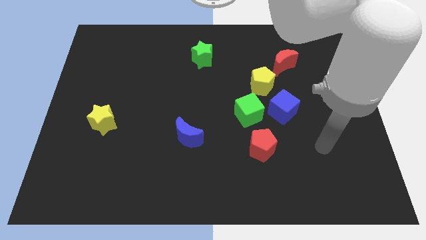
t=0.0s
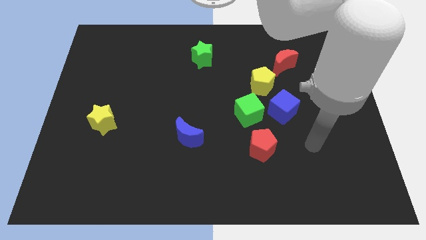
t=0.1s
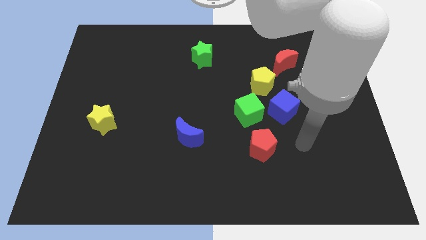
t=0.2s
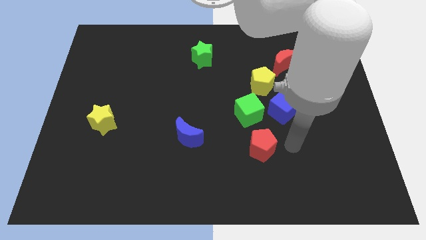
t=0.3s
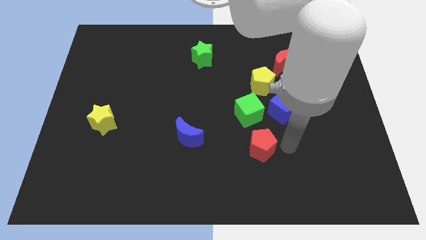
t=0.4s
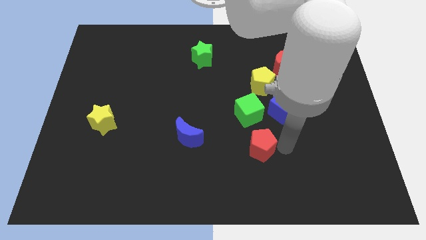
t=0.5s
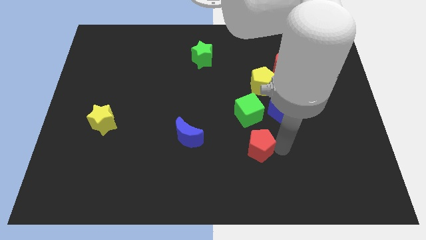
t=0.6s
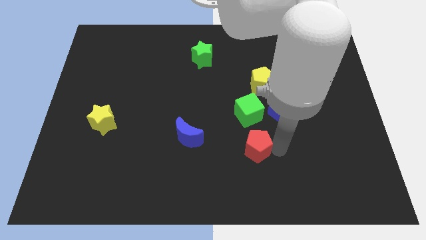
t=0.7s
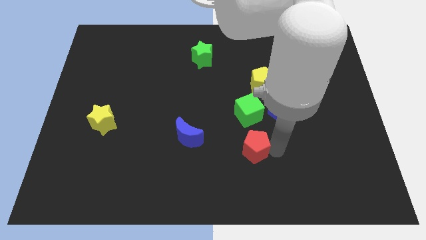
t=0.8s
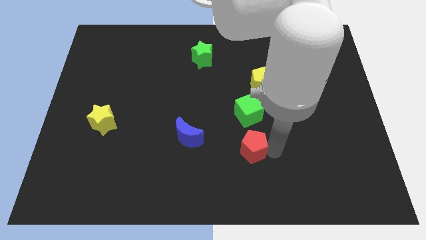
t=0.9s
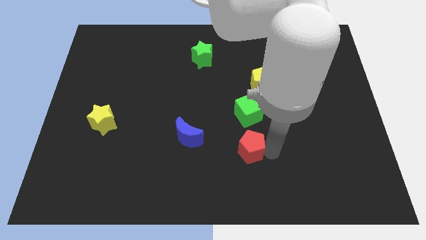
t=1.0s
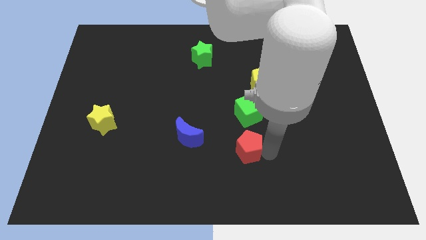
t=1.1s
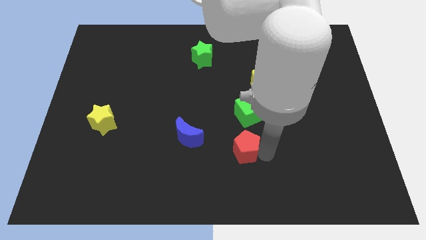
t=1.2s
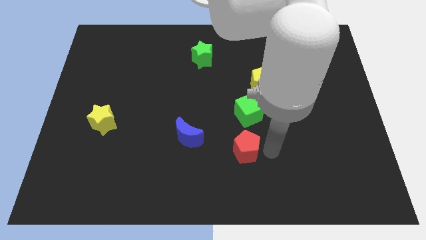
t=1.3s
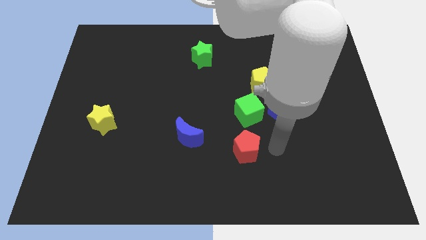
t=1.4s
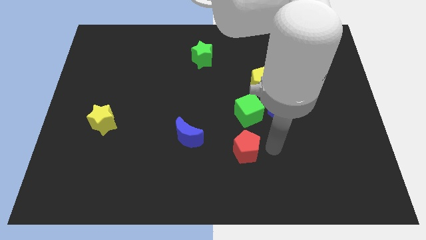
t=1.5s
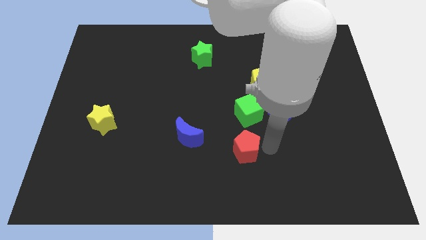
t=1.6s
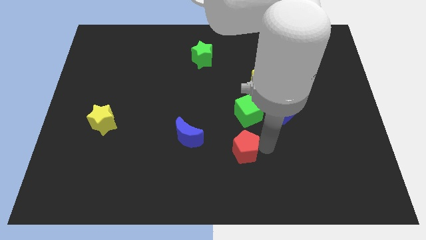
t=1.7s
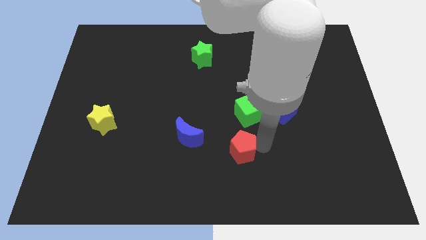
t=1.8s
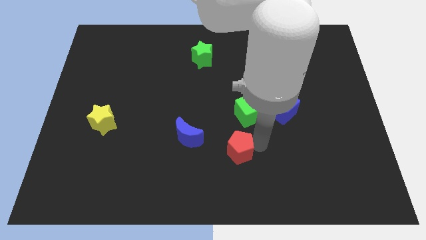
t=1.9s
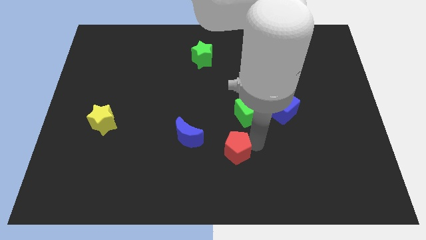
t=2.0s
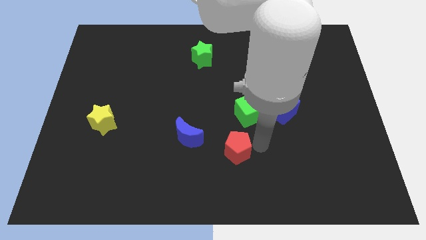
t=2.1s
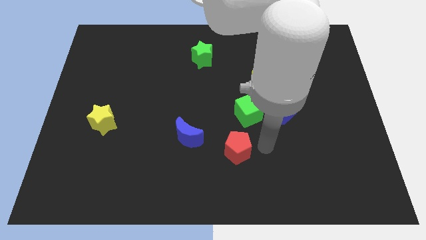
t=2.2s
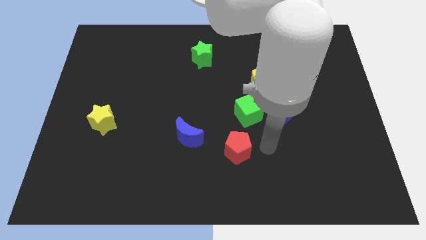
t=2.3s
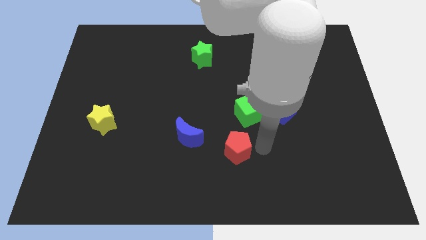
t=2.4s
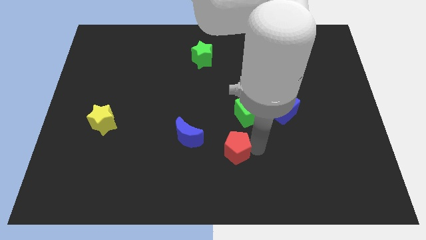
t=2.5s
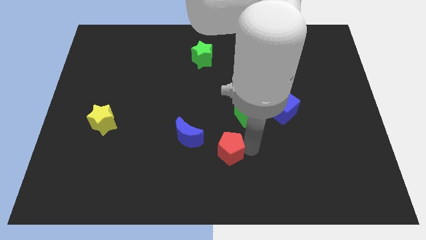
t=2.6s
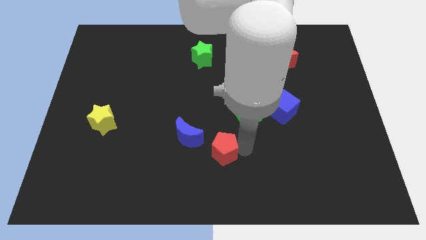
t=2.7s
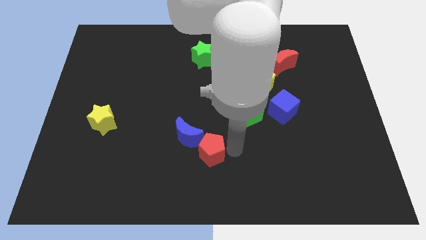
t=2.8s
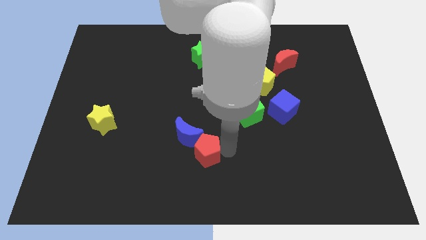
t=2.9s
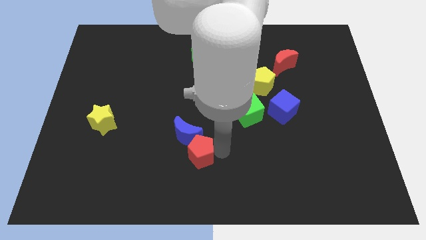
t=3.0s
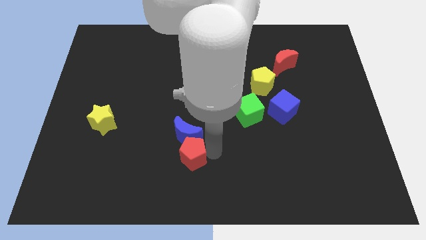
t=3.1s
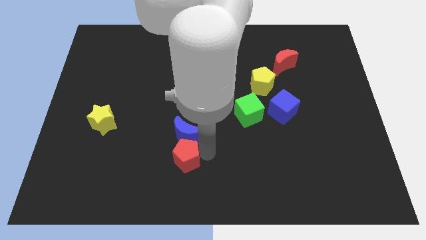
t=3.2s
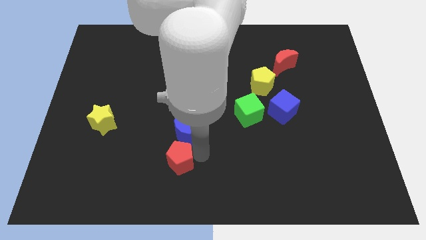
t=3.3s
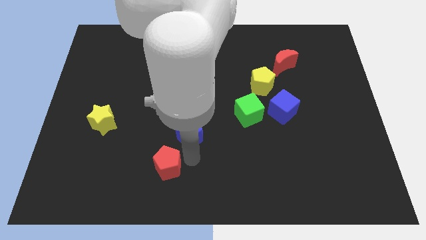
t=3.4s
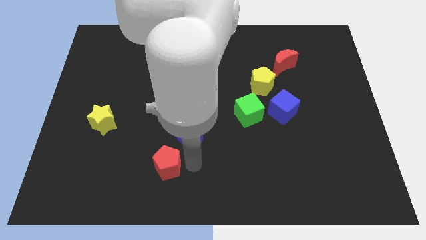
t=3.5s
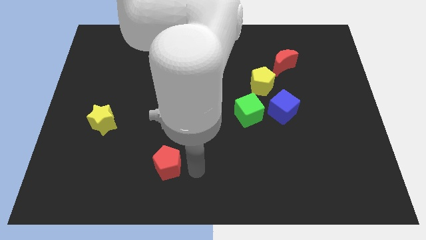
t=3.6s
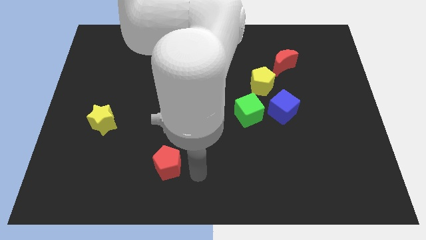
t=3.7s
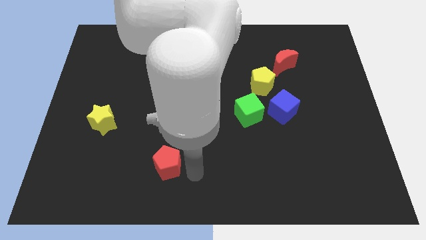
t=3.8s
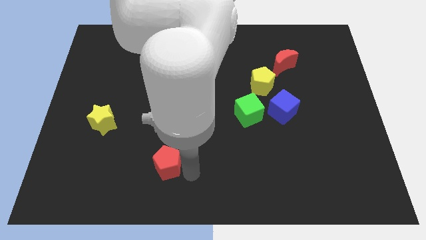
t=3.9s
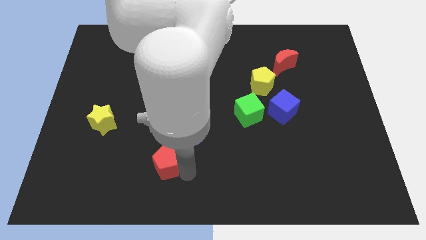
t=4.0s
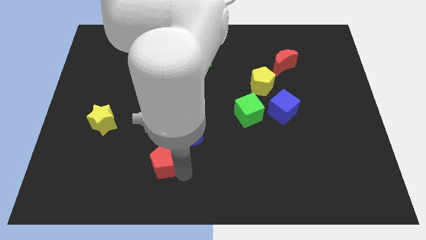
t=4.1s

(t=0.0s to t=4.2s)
move the red pentagon left

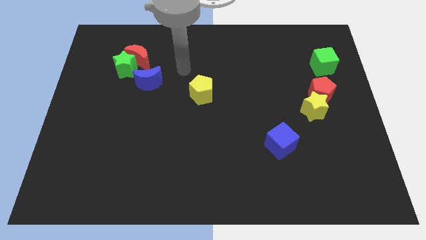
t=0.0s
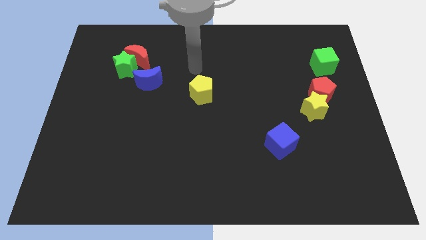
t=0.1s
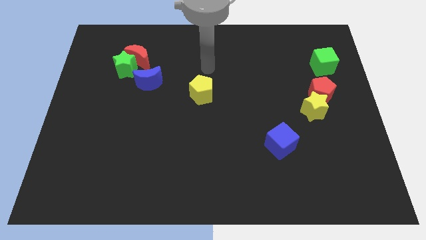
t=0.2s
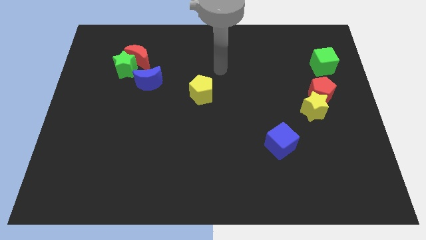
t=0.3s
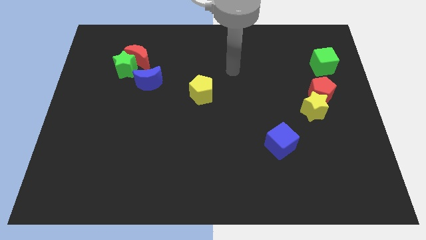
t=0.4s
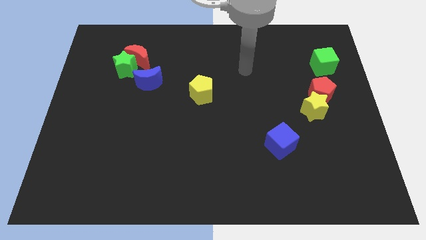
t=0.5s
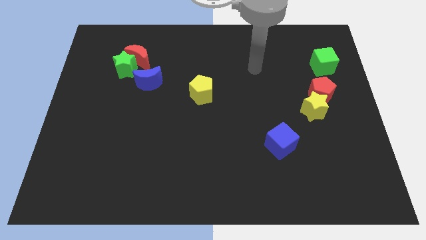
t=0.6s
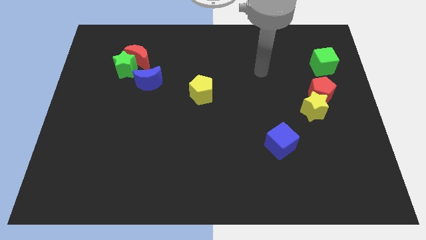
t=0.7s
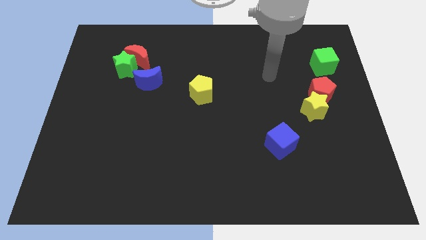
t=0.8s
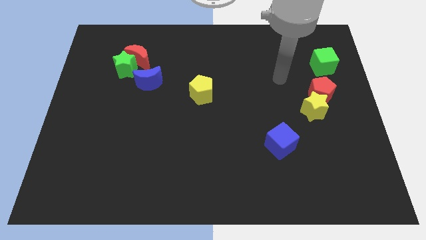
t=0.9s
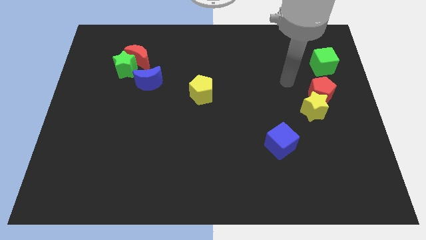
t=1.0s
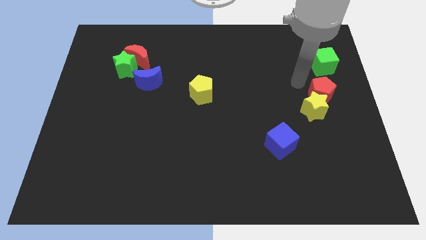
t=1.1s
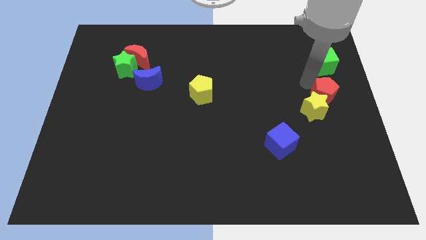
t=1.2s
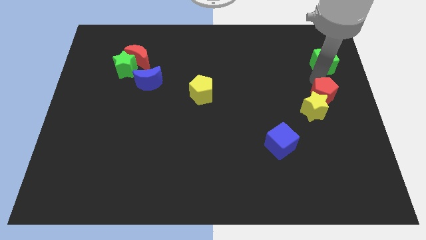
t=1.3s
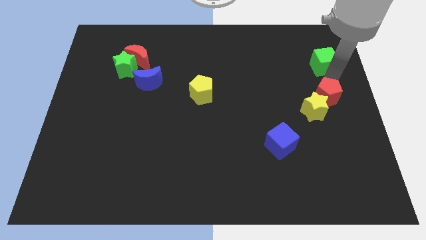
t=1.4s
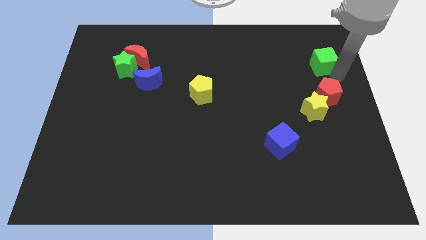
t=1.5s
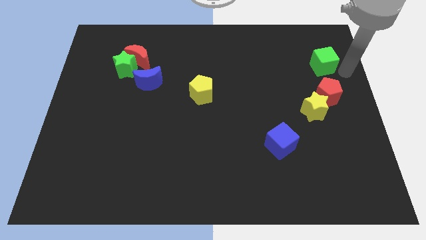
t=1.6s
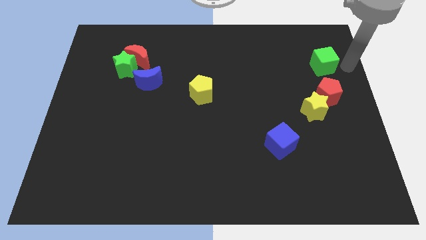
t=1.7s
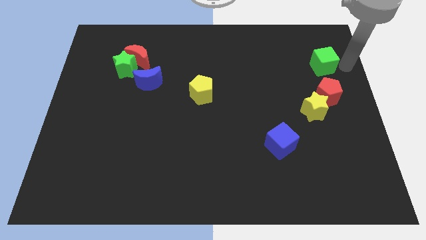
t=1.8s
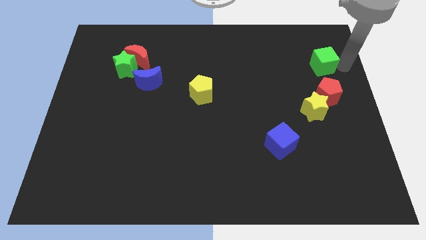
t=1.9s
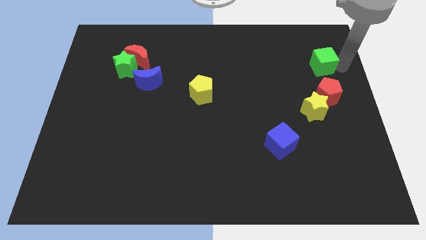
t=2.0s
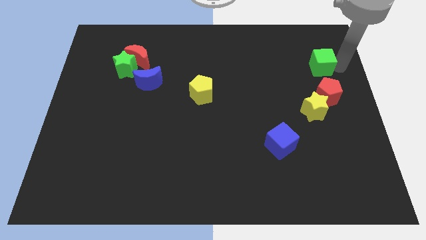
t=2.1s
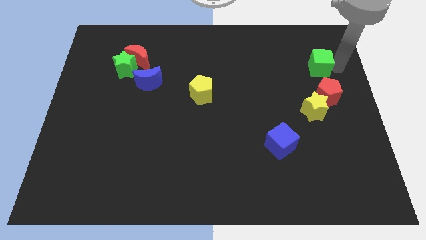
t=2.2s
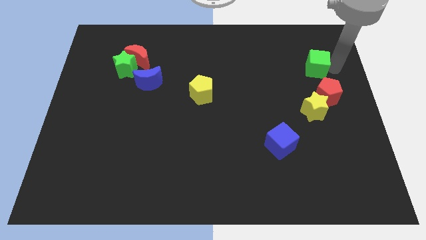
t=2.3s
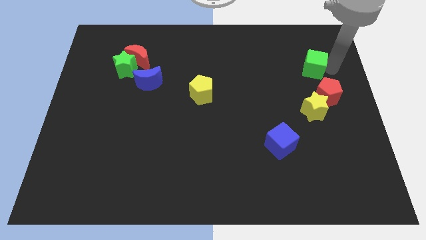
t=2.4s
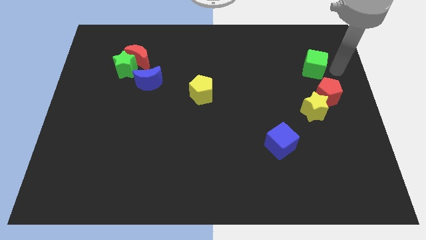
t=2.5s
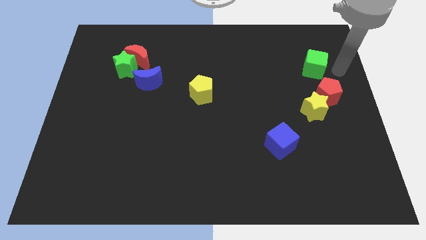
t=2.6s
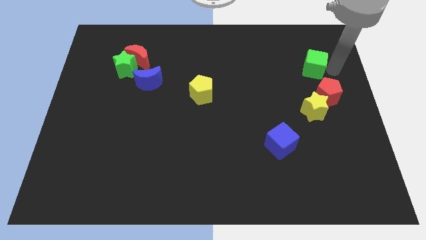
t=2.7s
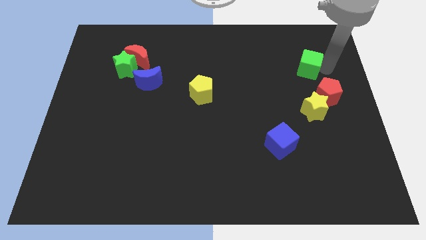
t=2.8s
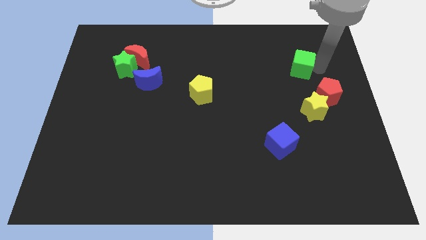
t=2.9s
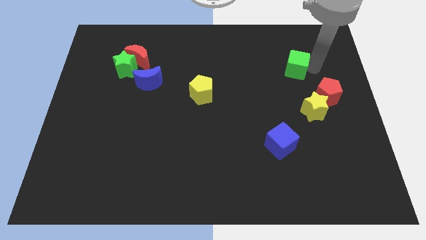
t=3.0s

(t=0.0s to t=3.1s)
move the green cube to the left a little

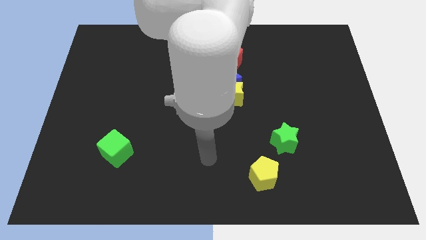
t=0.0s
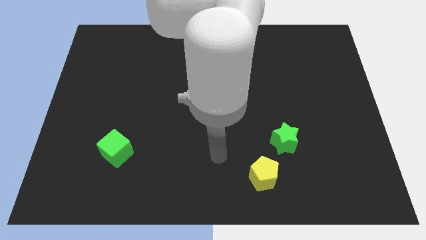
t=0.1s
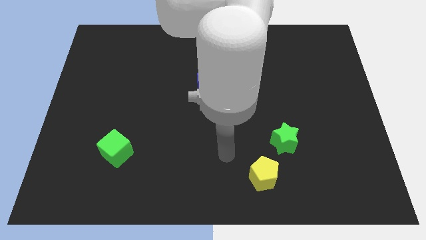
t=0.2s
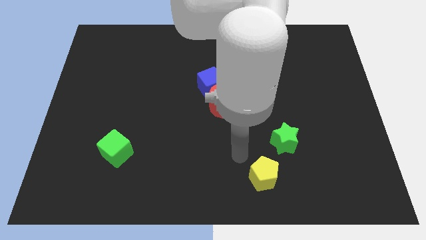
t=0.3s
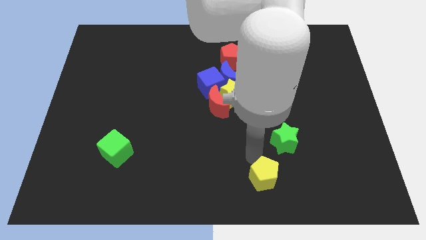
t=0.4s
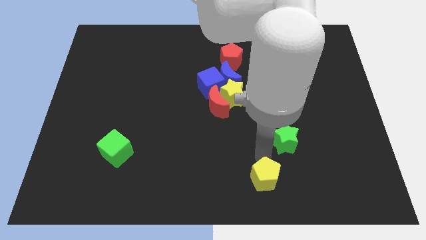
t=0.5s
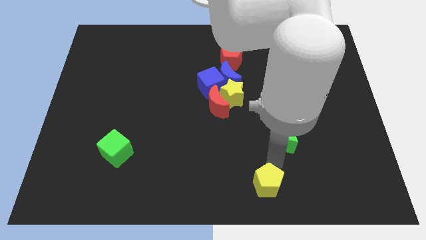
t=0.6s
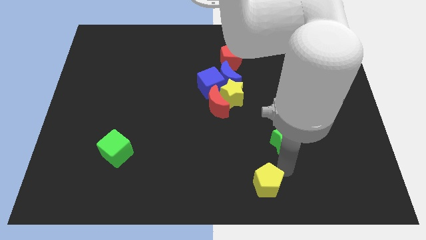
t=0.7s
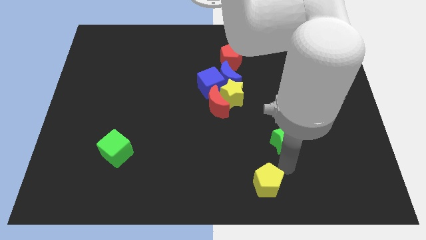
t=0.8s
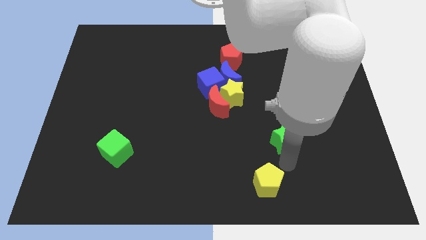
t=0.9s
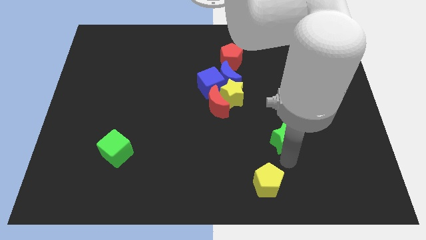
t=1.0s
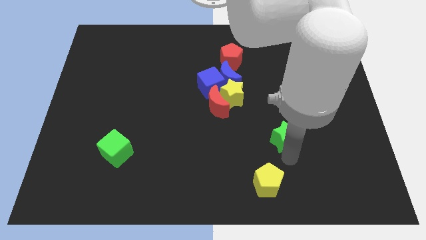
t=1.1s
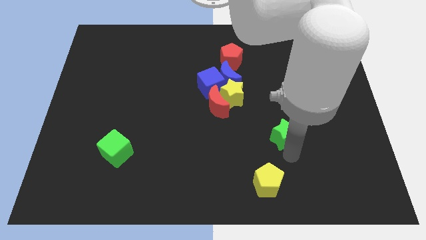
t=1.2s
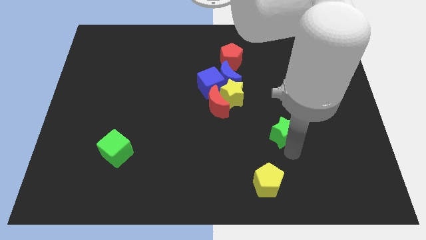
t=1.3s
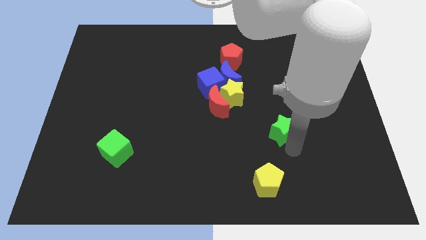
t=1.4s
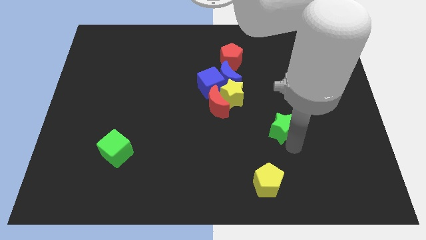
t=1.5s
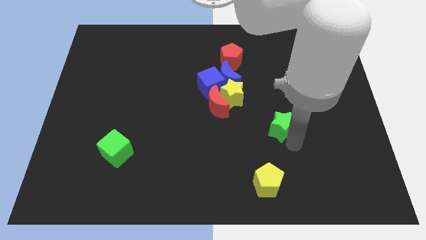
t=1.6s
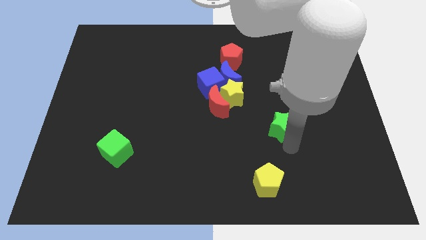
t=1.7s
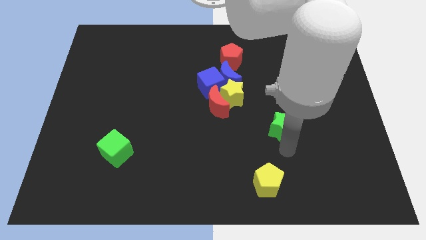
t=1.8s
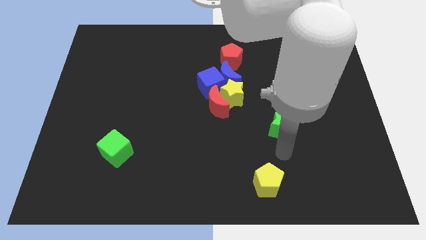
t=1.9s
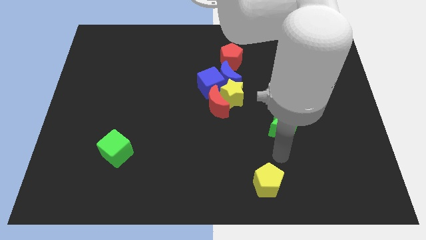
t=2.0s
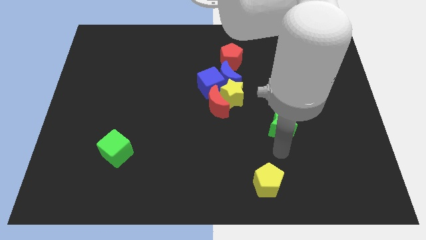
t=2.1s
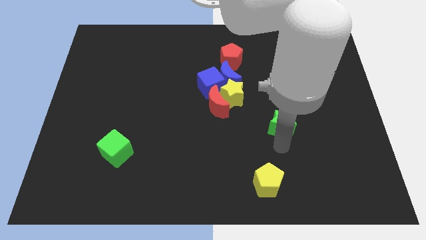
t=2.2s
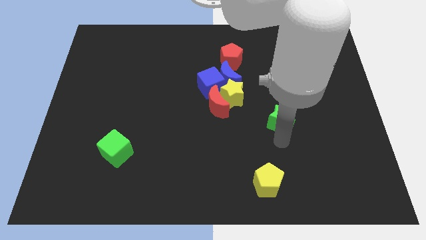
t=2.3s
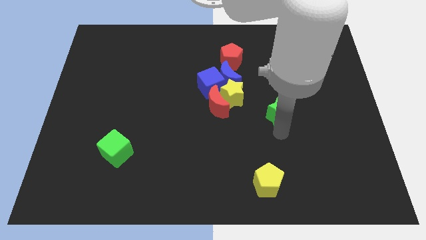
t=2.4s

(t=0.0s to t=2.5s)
move the green star up somewhat
